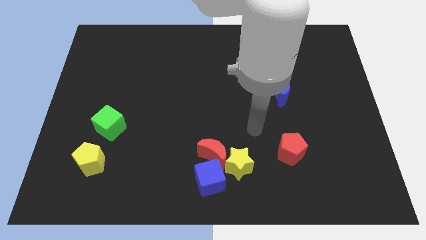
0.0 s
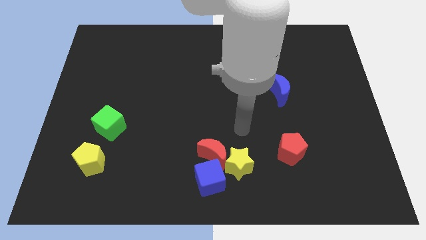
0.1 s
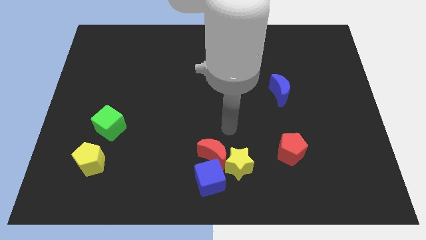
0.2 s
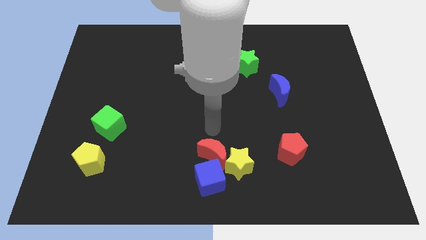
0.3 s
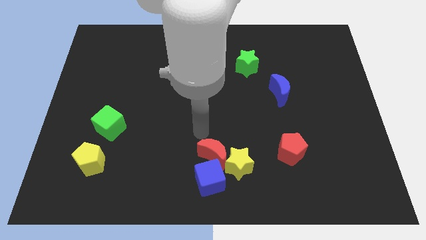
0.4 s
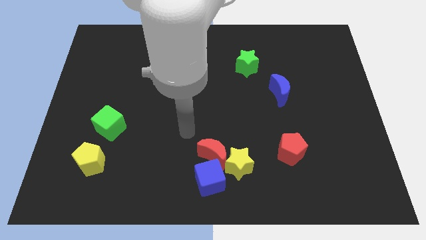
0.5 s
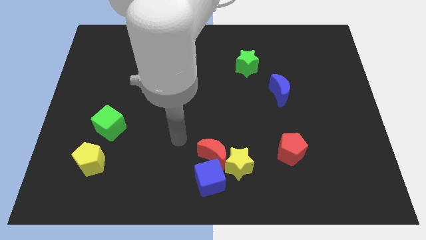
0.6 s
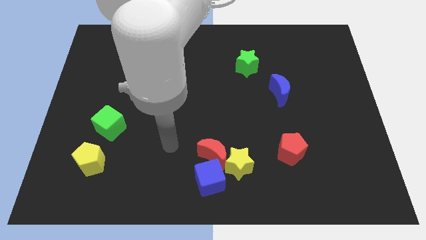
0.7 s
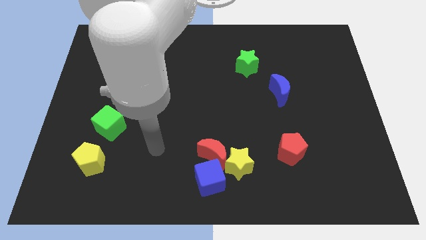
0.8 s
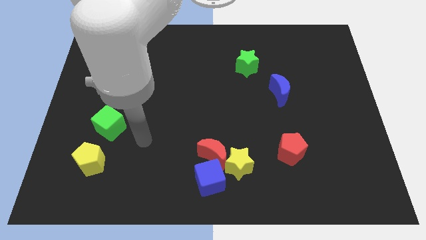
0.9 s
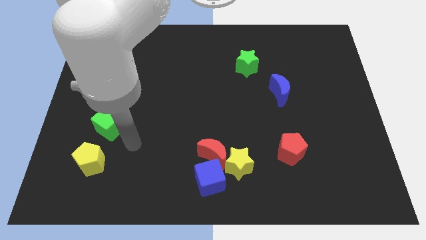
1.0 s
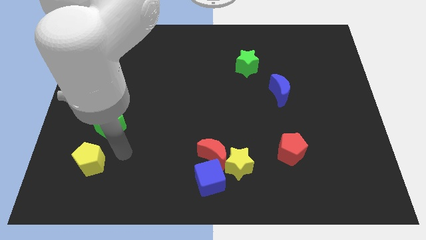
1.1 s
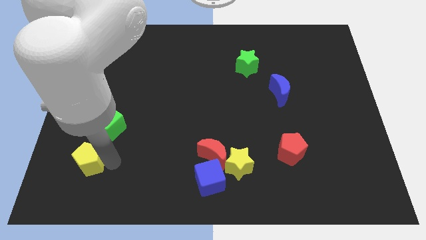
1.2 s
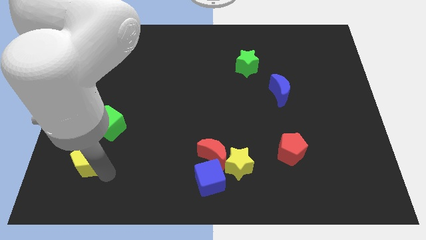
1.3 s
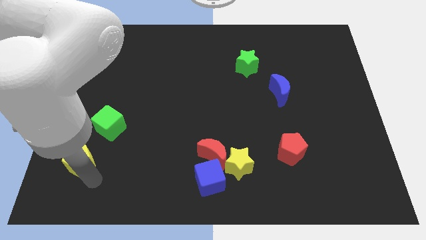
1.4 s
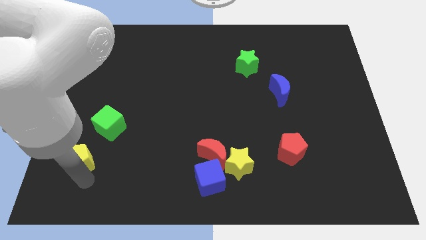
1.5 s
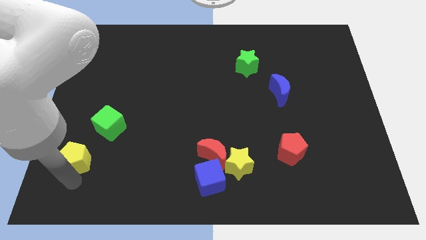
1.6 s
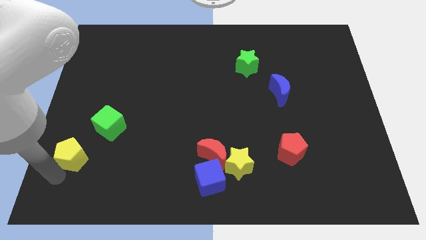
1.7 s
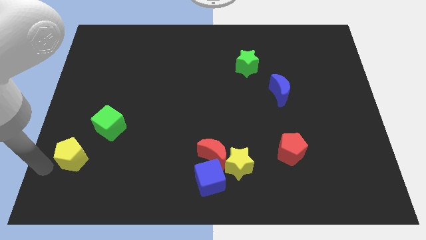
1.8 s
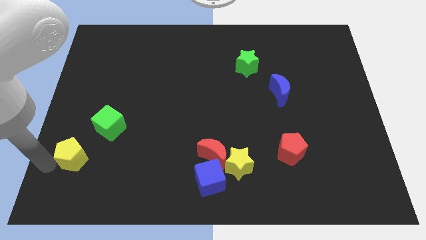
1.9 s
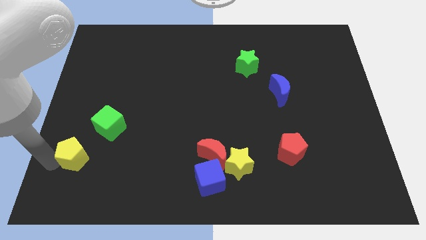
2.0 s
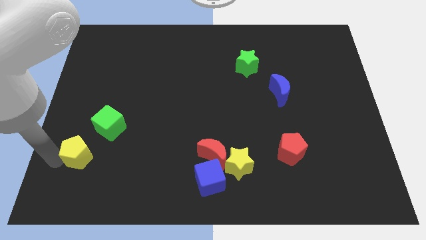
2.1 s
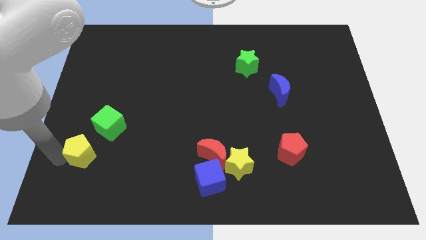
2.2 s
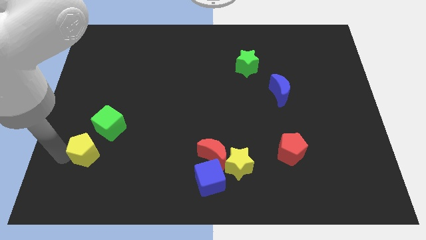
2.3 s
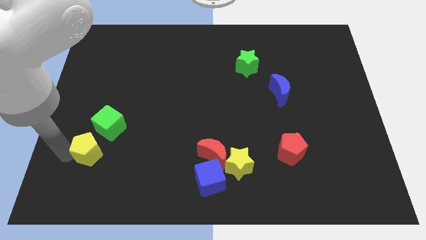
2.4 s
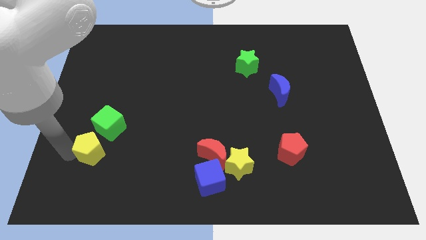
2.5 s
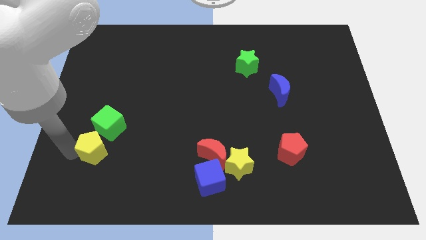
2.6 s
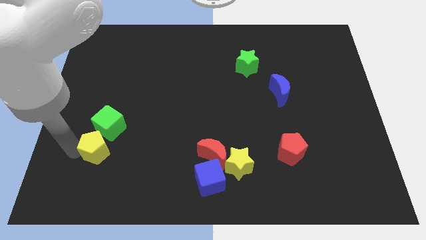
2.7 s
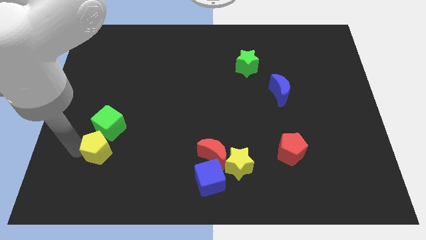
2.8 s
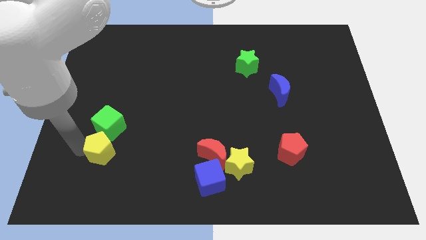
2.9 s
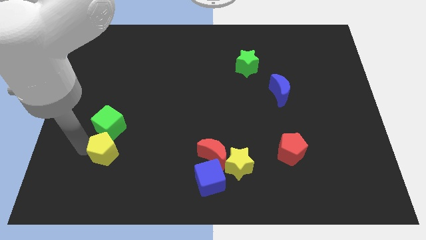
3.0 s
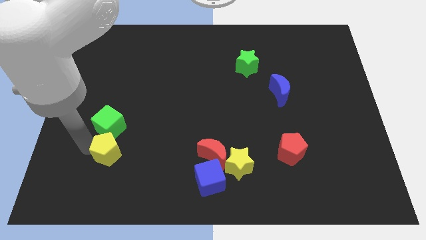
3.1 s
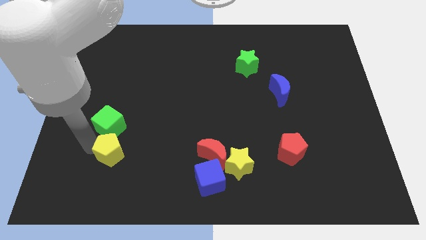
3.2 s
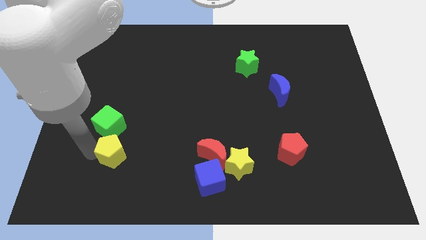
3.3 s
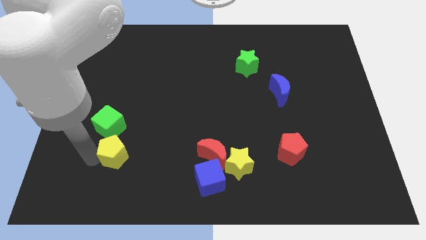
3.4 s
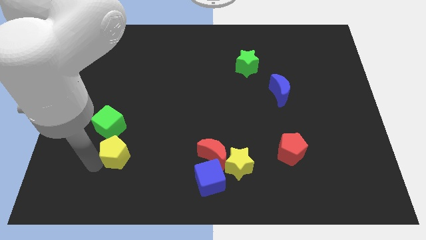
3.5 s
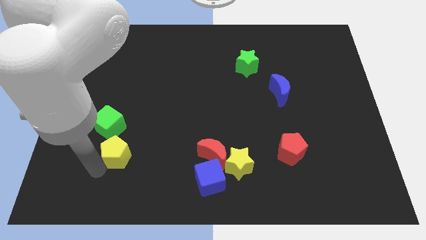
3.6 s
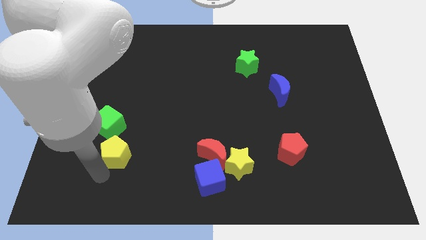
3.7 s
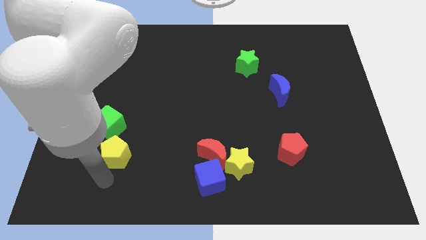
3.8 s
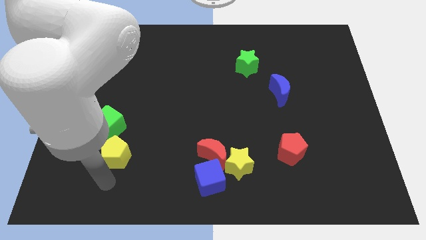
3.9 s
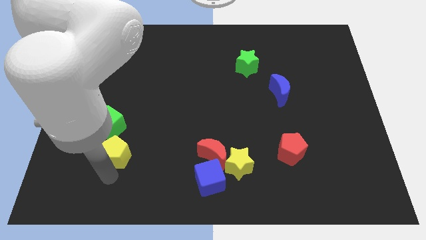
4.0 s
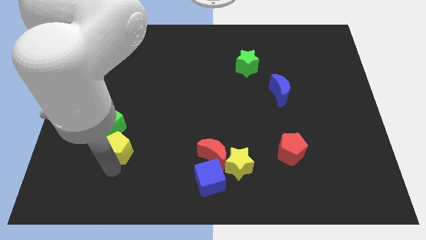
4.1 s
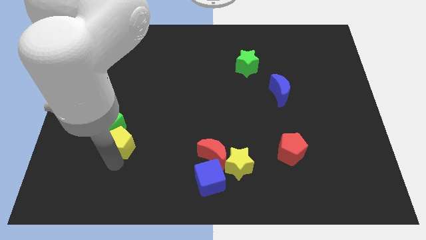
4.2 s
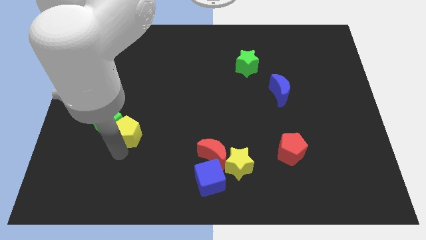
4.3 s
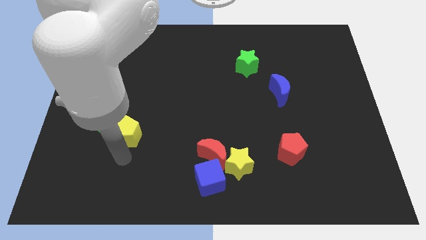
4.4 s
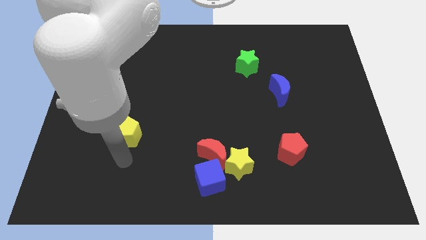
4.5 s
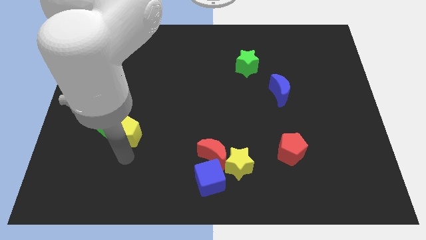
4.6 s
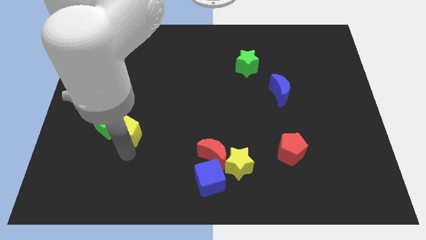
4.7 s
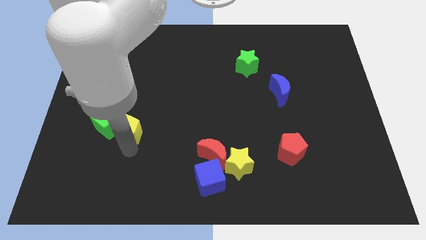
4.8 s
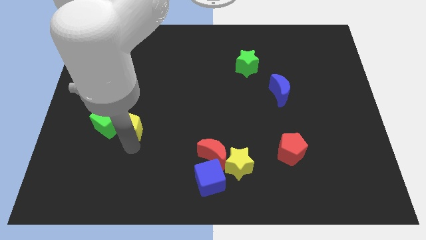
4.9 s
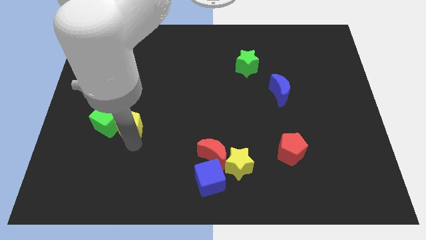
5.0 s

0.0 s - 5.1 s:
slide the yellow pentagon to the top right side of the green cube

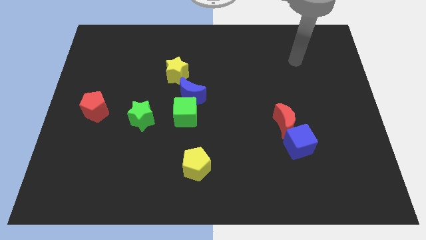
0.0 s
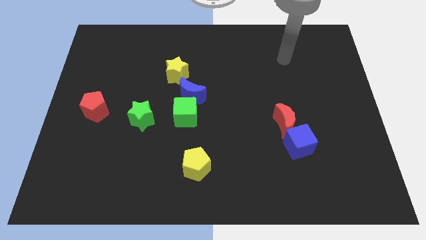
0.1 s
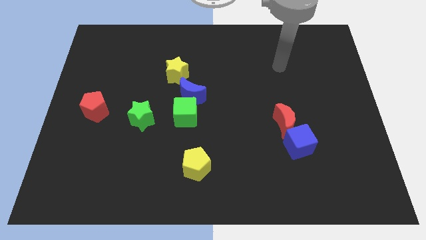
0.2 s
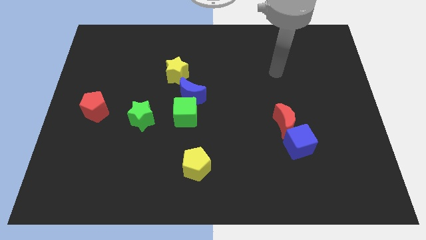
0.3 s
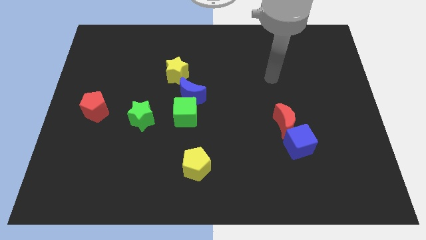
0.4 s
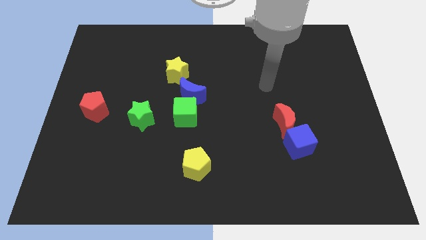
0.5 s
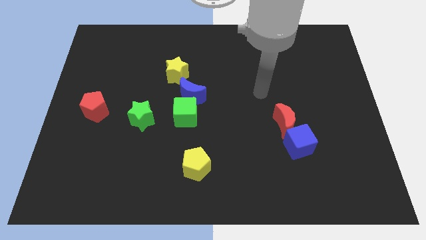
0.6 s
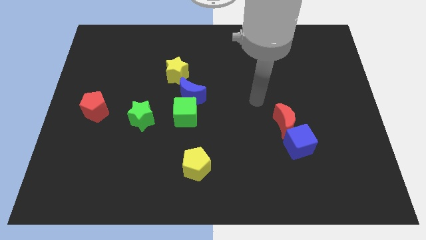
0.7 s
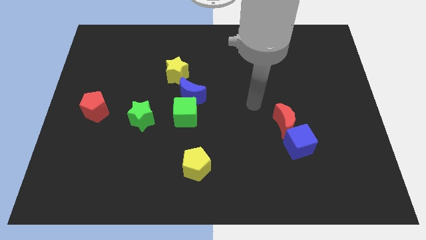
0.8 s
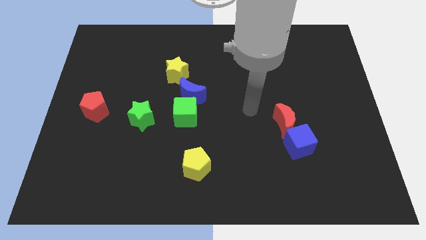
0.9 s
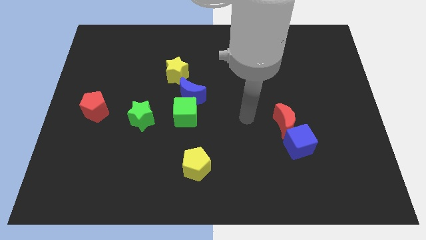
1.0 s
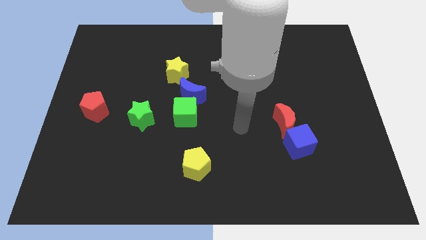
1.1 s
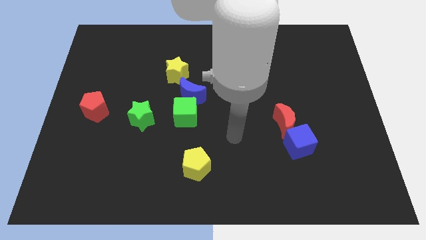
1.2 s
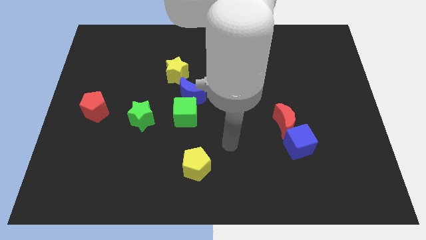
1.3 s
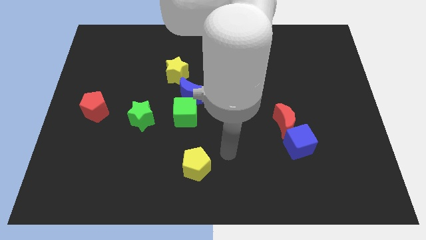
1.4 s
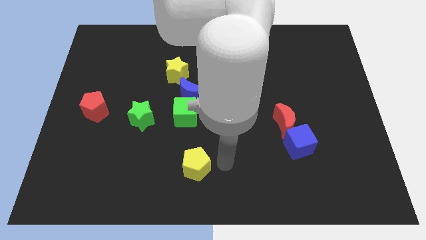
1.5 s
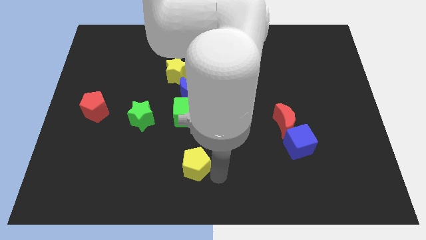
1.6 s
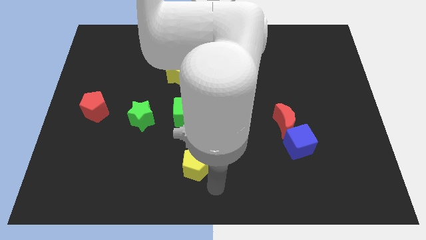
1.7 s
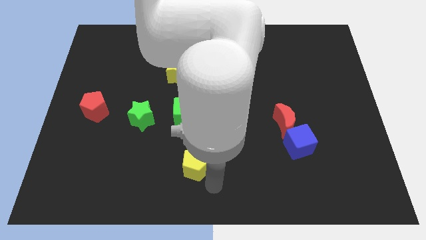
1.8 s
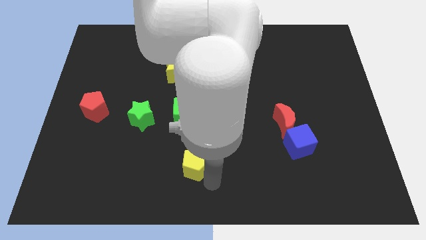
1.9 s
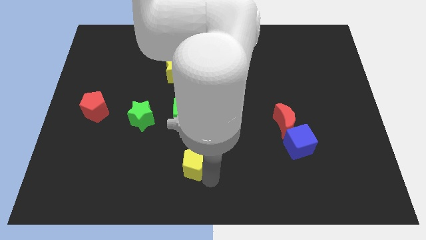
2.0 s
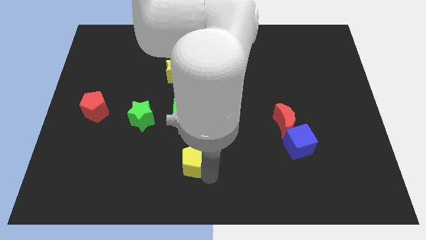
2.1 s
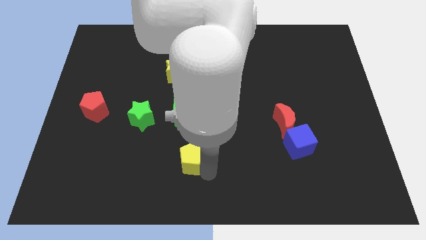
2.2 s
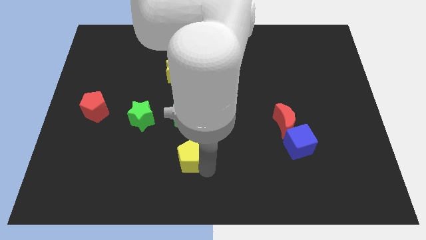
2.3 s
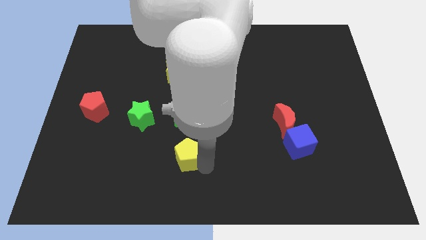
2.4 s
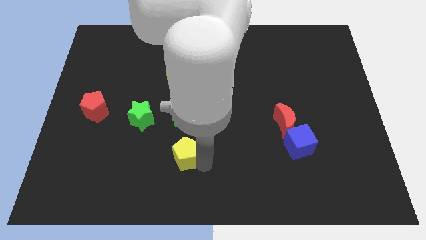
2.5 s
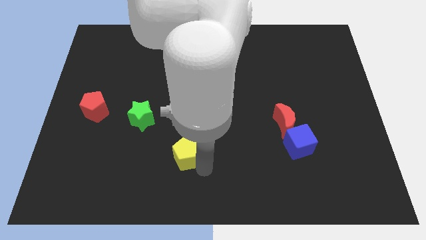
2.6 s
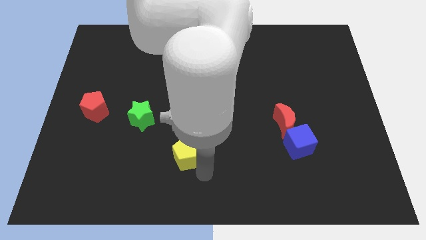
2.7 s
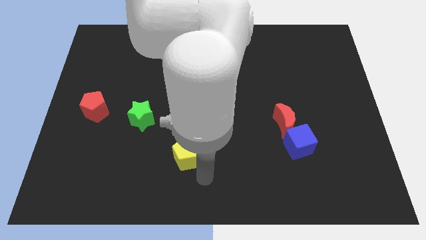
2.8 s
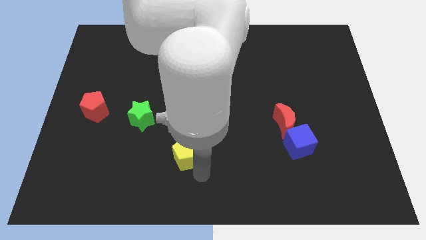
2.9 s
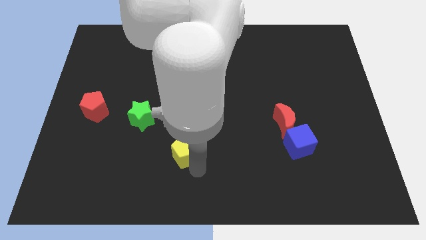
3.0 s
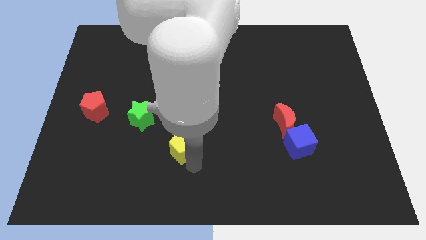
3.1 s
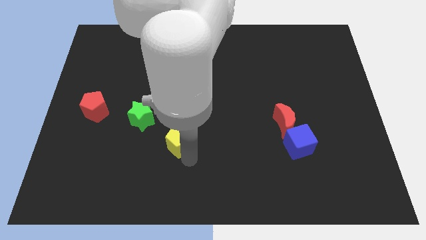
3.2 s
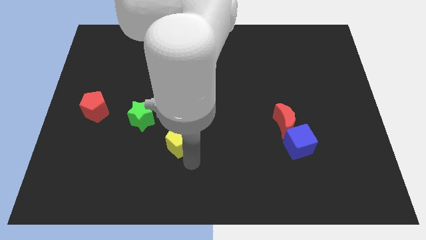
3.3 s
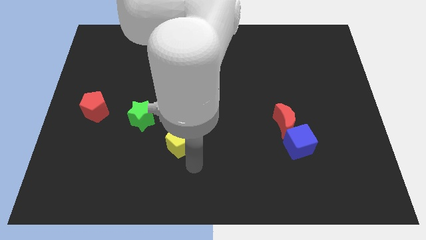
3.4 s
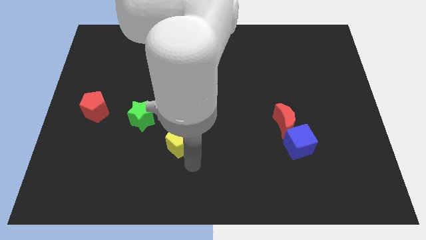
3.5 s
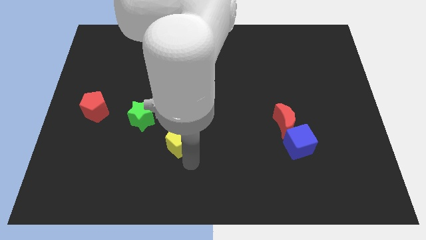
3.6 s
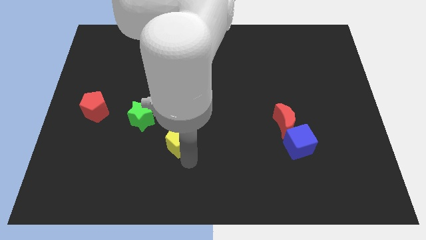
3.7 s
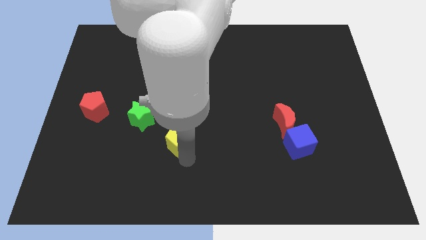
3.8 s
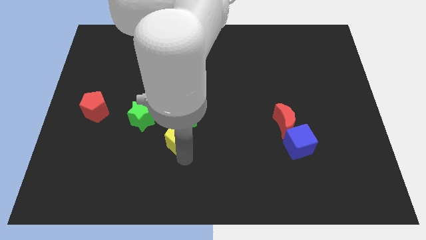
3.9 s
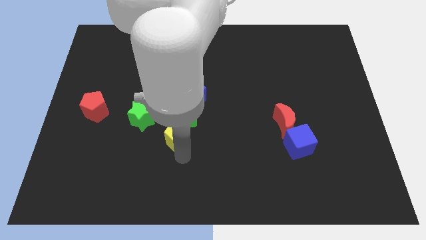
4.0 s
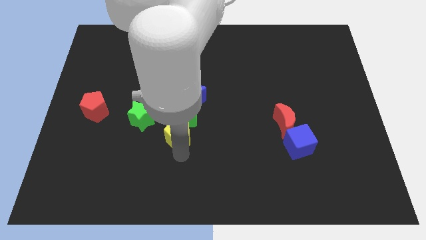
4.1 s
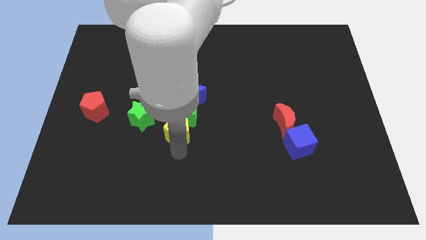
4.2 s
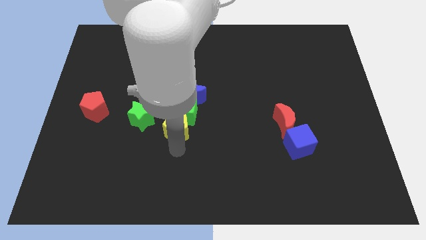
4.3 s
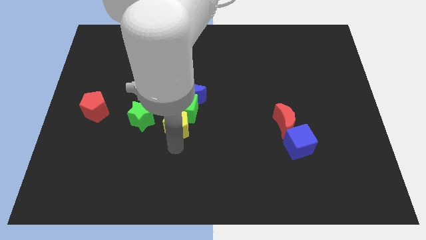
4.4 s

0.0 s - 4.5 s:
push the yellow pentagon to the bottom left of the blue moon
